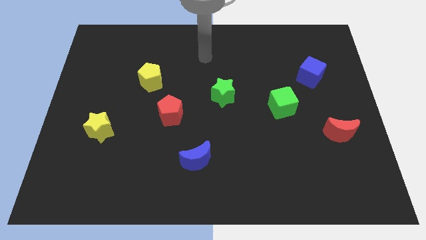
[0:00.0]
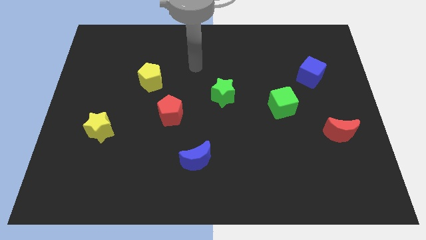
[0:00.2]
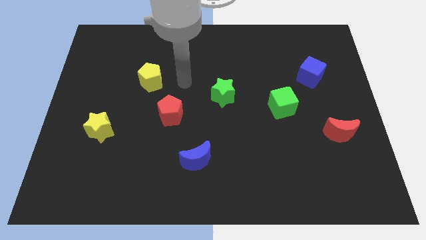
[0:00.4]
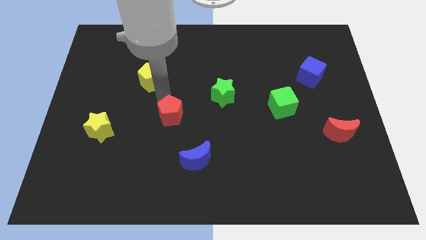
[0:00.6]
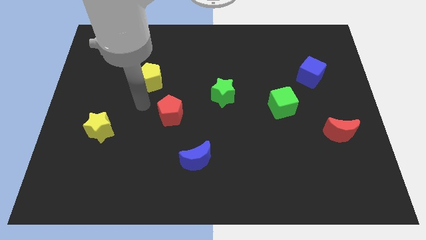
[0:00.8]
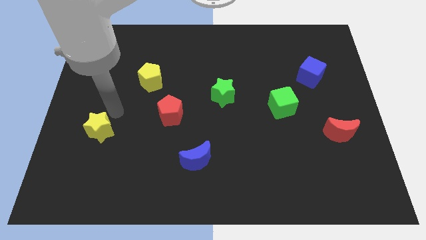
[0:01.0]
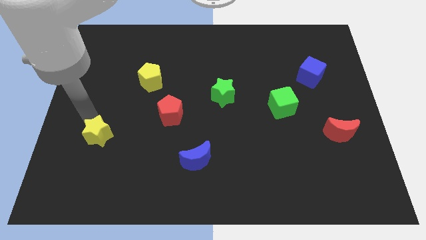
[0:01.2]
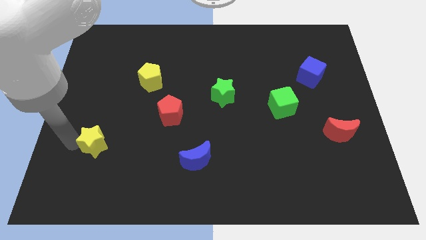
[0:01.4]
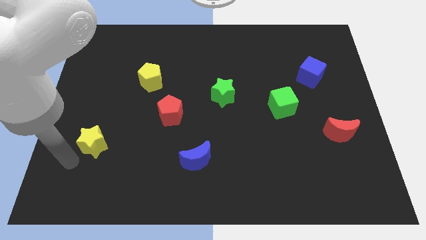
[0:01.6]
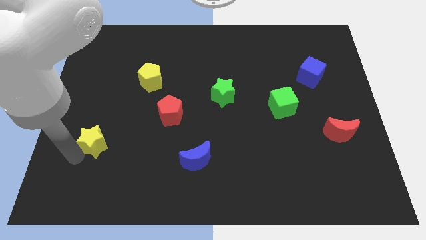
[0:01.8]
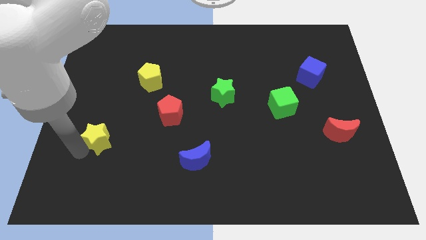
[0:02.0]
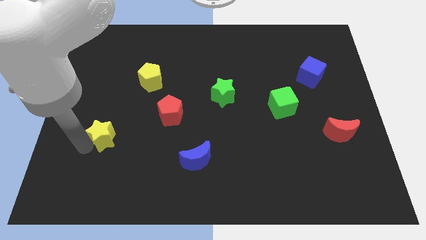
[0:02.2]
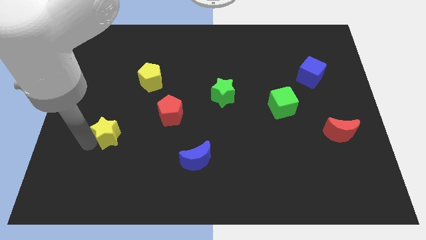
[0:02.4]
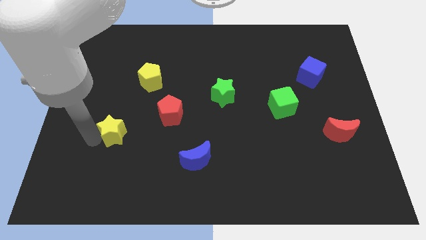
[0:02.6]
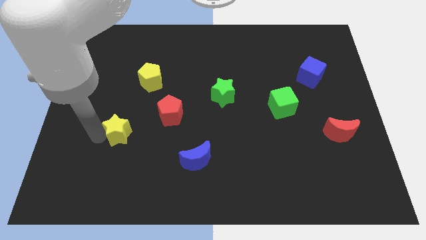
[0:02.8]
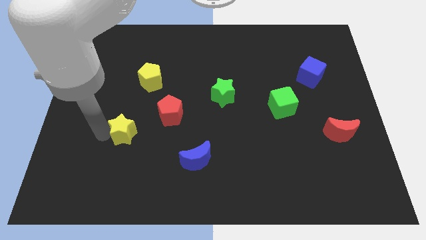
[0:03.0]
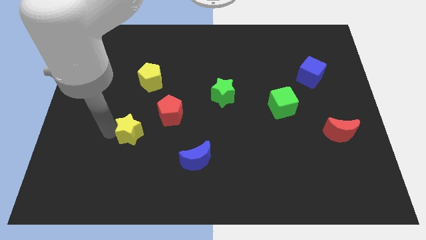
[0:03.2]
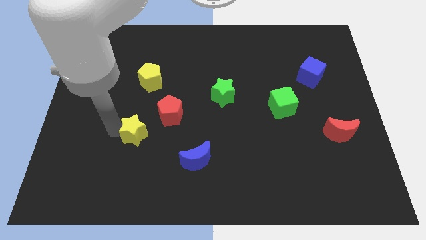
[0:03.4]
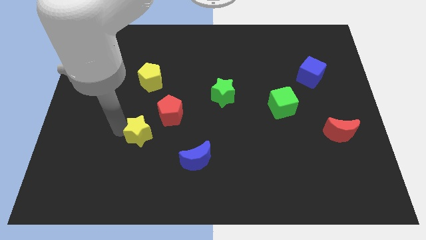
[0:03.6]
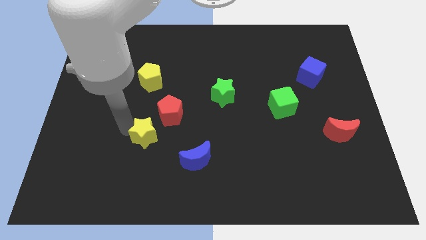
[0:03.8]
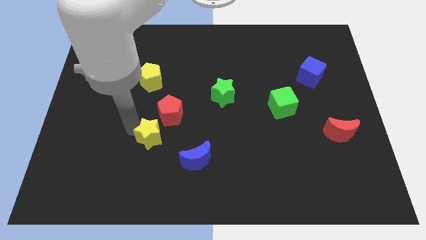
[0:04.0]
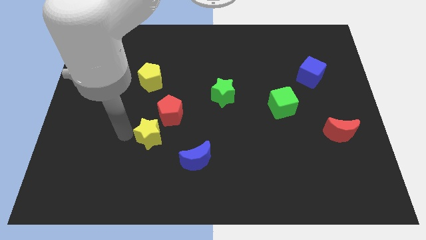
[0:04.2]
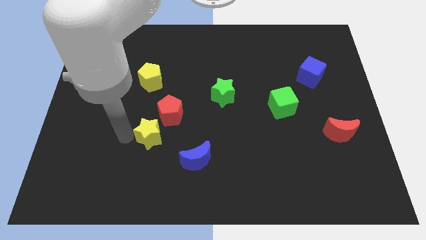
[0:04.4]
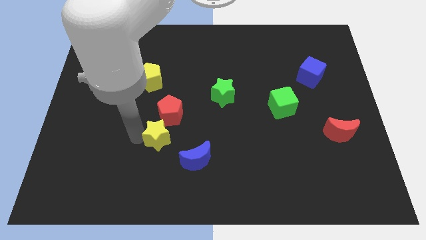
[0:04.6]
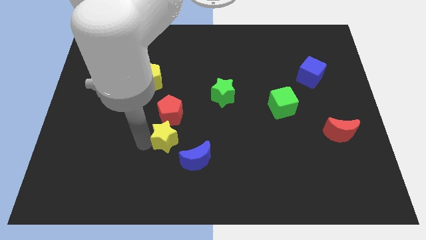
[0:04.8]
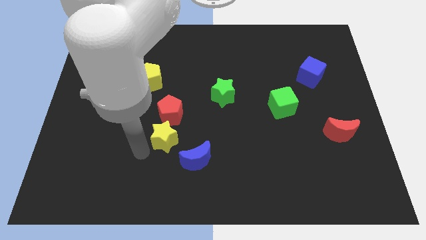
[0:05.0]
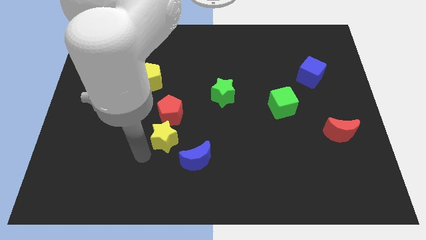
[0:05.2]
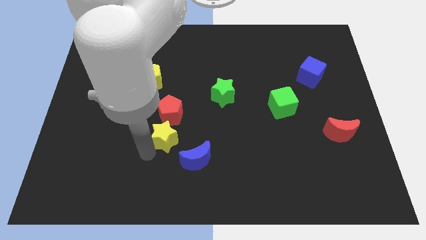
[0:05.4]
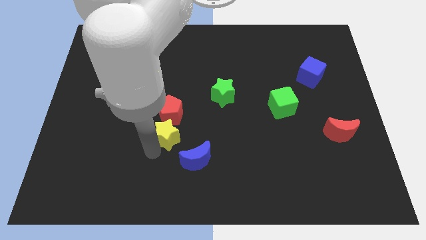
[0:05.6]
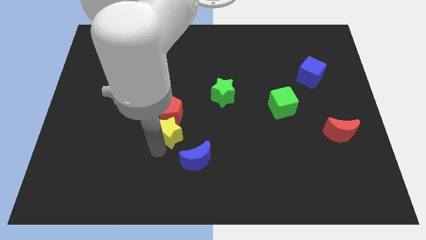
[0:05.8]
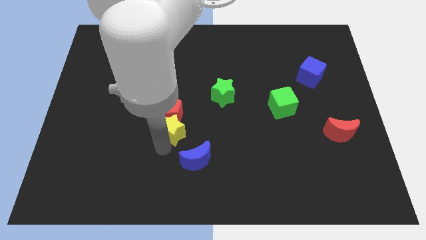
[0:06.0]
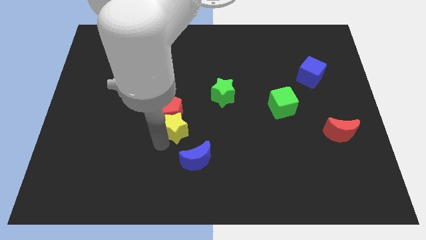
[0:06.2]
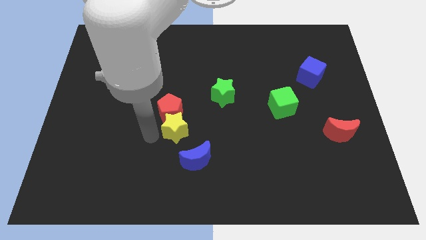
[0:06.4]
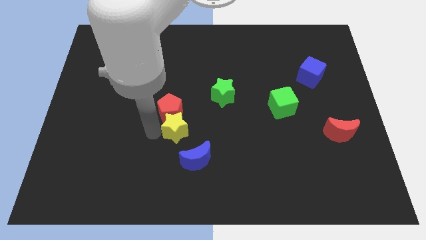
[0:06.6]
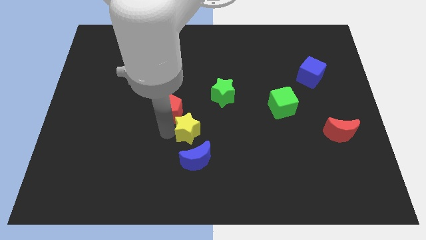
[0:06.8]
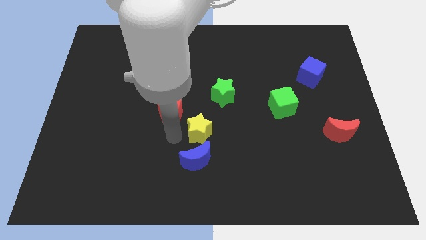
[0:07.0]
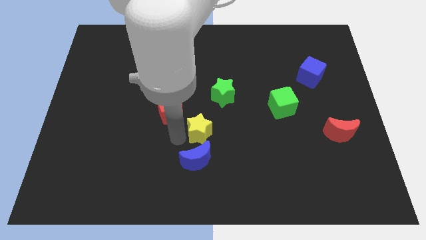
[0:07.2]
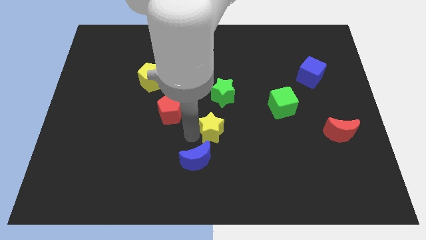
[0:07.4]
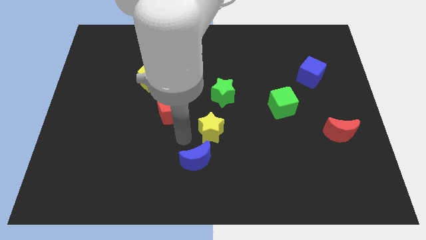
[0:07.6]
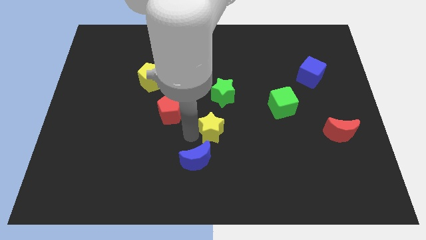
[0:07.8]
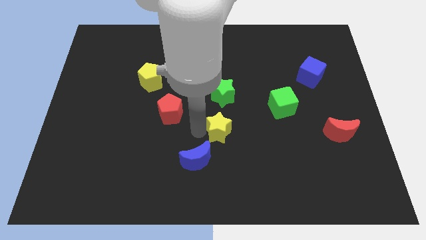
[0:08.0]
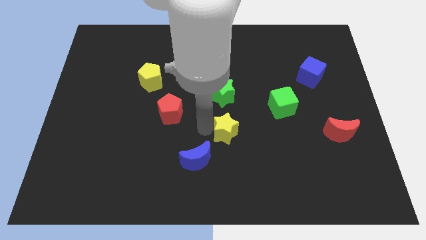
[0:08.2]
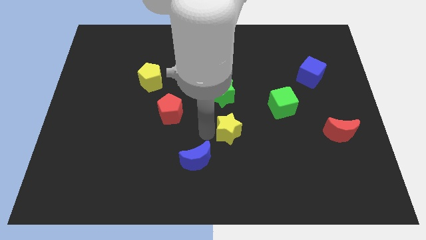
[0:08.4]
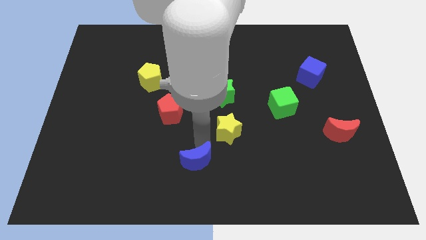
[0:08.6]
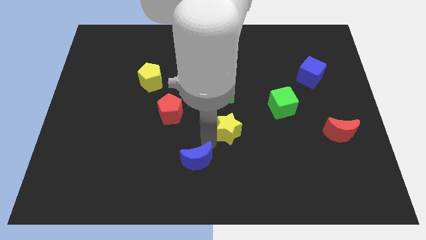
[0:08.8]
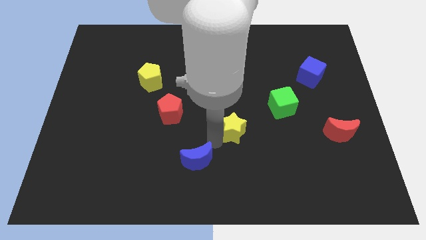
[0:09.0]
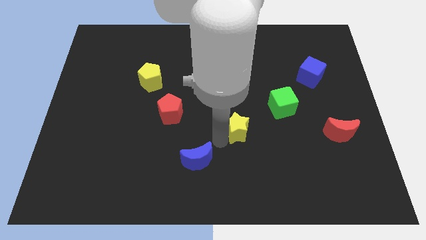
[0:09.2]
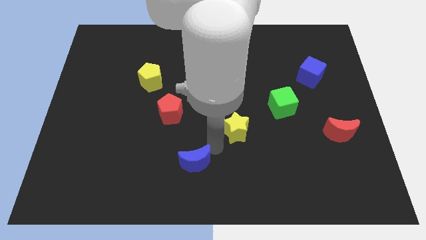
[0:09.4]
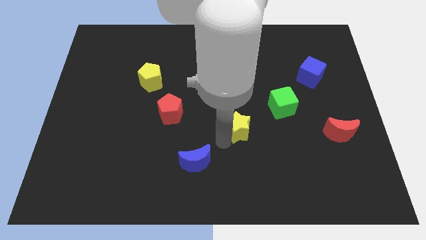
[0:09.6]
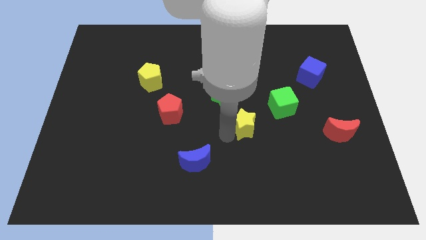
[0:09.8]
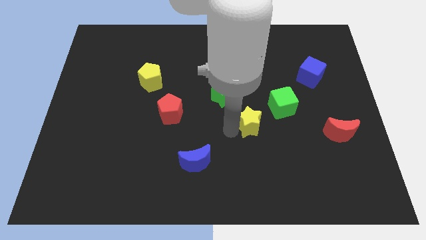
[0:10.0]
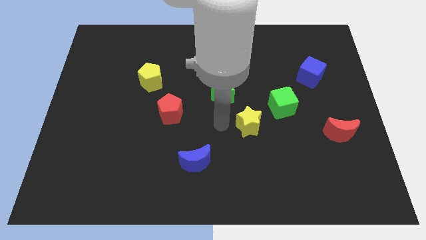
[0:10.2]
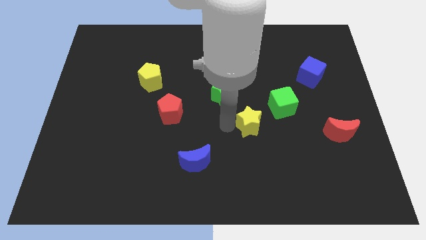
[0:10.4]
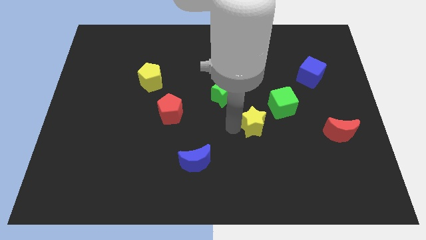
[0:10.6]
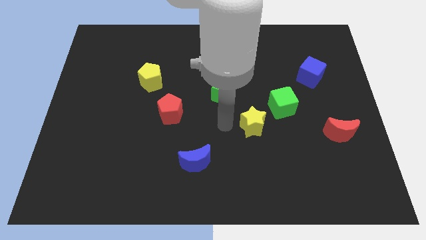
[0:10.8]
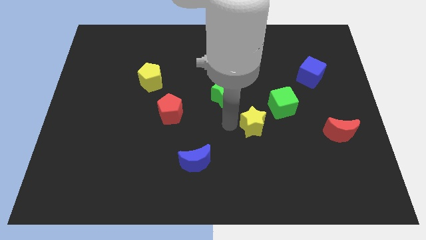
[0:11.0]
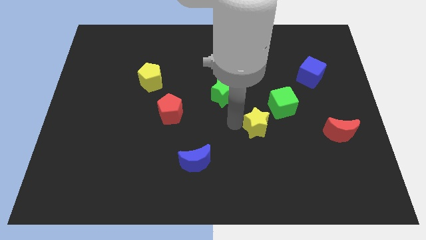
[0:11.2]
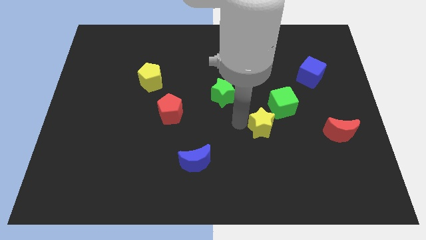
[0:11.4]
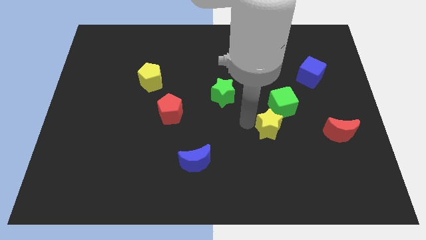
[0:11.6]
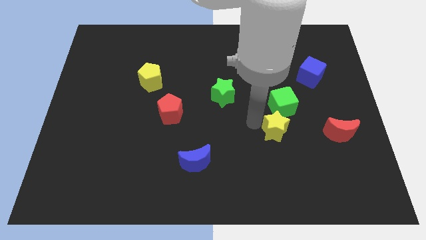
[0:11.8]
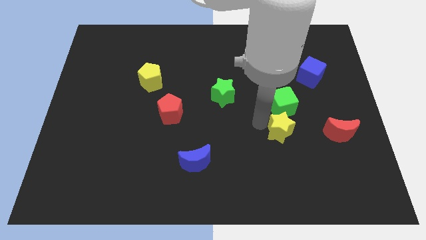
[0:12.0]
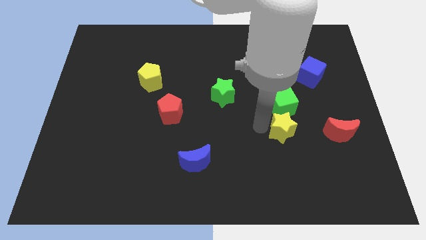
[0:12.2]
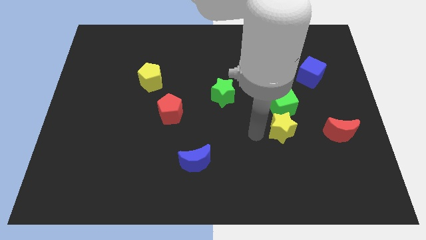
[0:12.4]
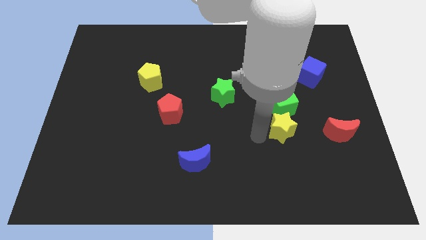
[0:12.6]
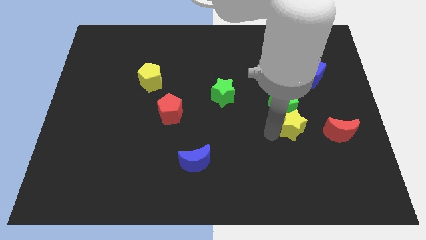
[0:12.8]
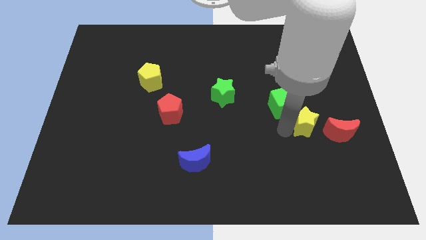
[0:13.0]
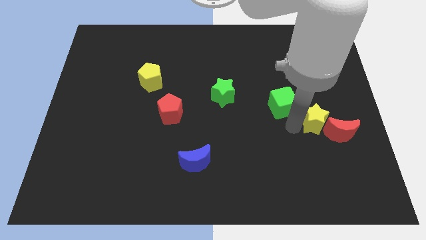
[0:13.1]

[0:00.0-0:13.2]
put the yellow star to the red moon

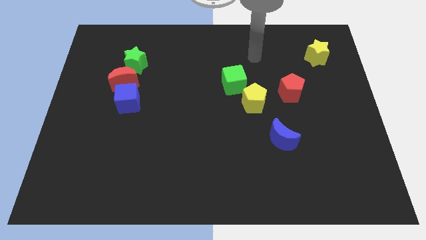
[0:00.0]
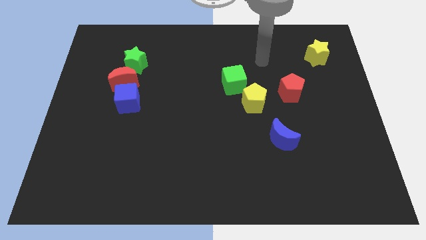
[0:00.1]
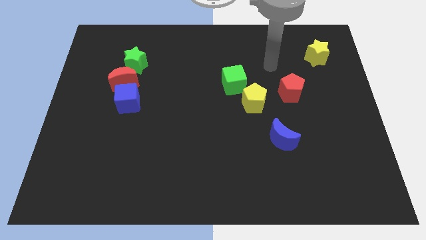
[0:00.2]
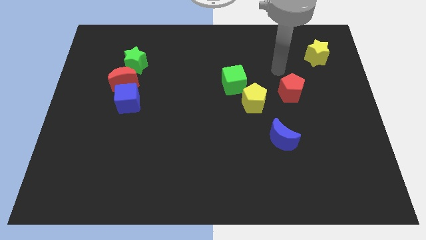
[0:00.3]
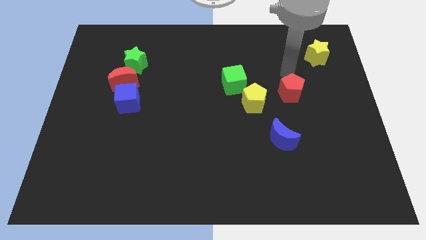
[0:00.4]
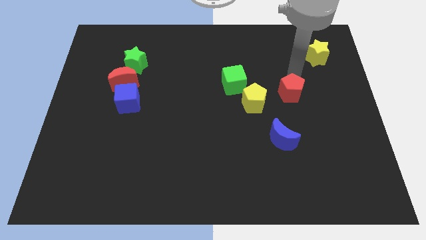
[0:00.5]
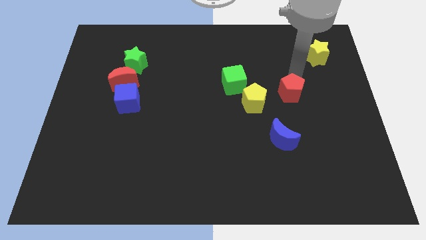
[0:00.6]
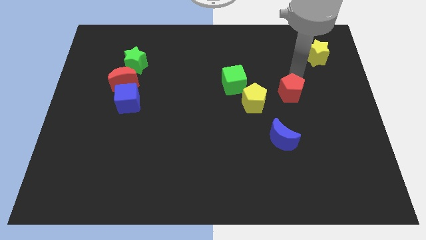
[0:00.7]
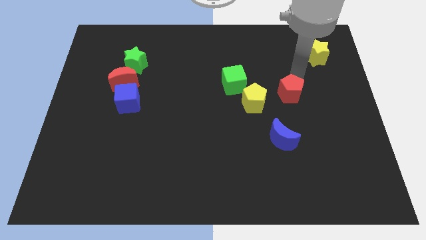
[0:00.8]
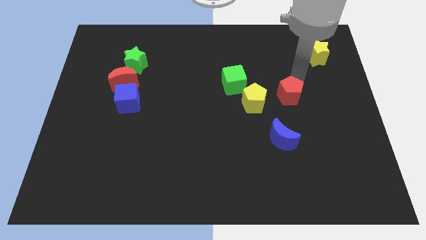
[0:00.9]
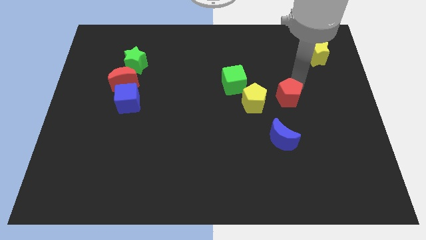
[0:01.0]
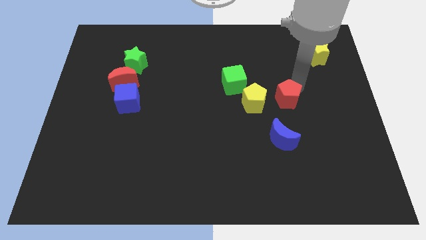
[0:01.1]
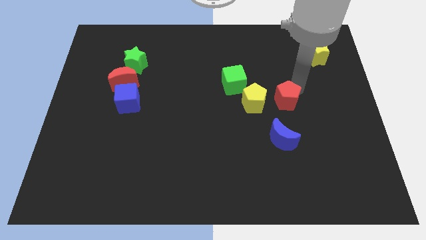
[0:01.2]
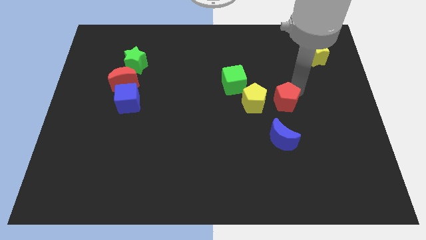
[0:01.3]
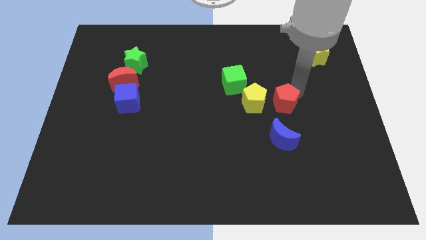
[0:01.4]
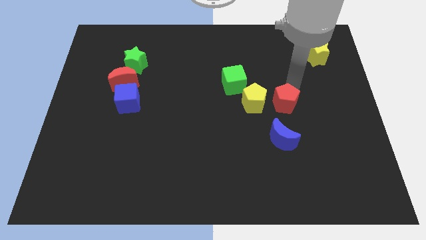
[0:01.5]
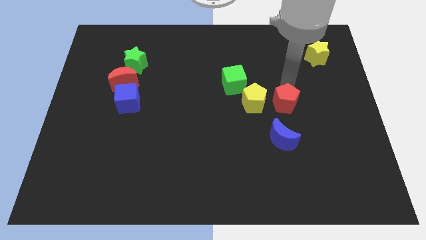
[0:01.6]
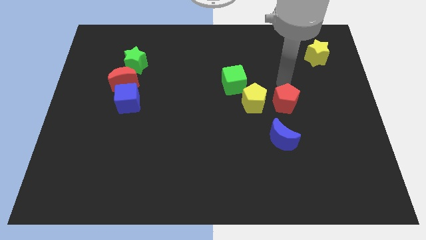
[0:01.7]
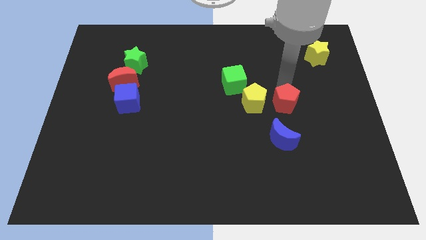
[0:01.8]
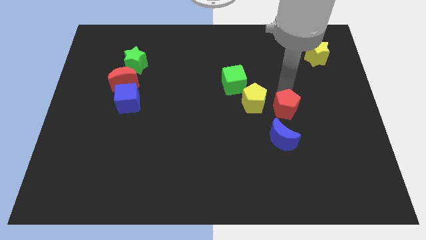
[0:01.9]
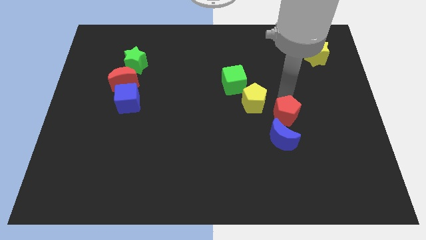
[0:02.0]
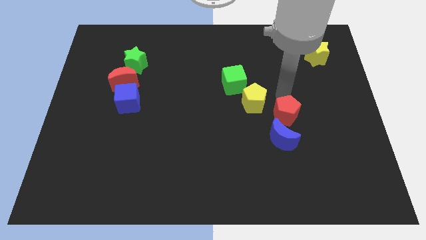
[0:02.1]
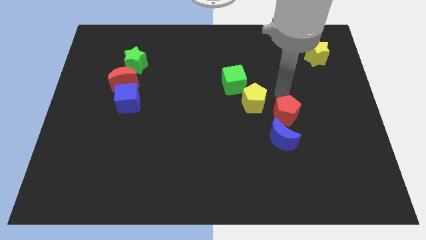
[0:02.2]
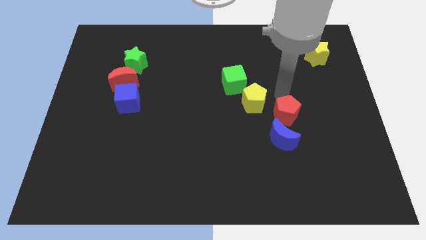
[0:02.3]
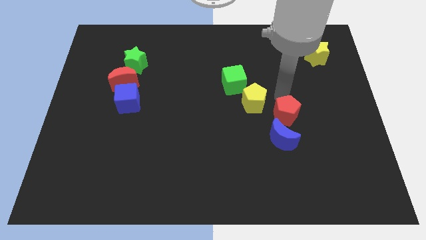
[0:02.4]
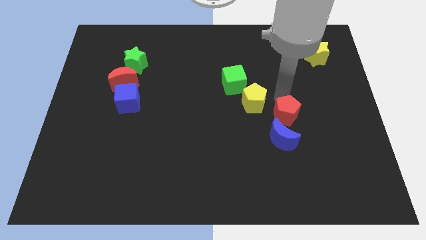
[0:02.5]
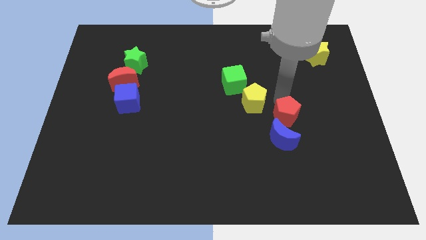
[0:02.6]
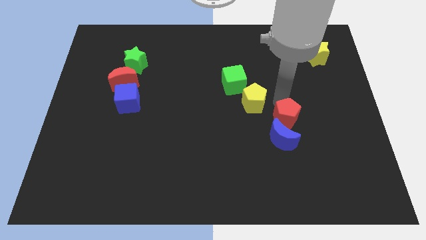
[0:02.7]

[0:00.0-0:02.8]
slide the red pentagon towards the blue moon
